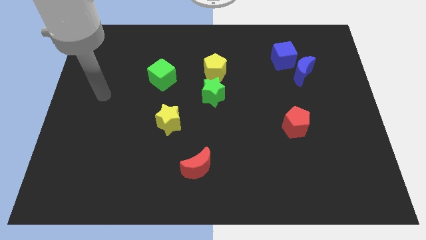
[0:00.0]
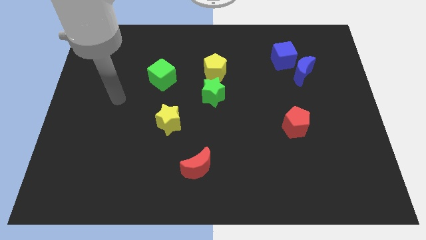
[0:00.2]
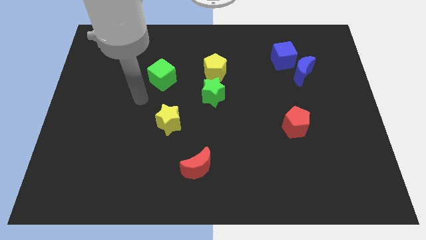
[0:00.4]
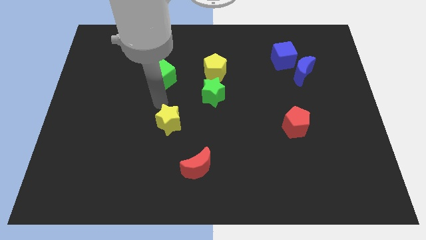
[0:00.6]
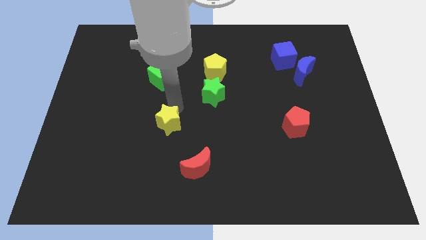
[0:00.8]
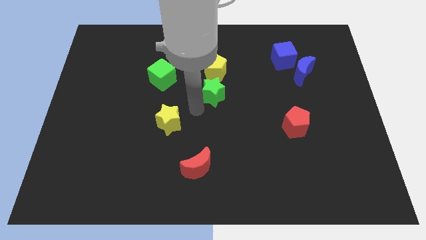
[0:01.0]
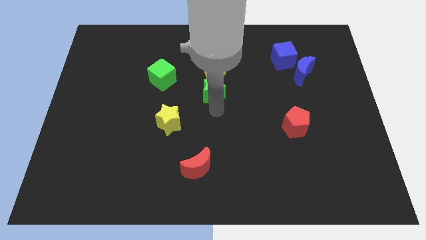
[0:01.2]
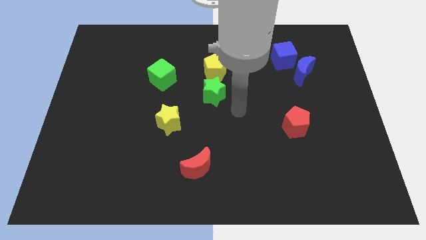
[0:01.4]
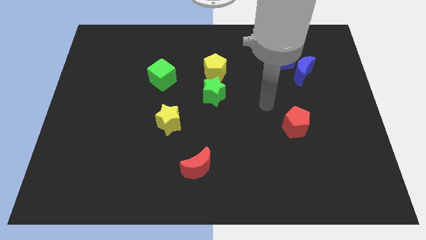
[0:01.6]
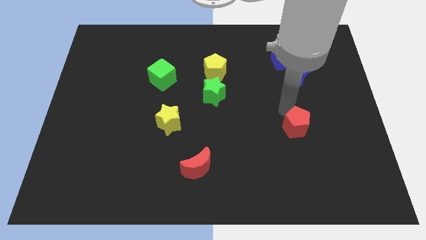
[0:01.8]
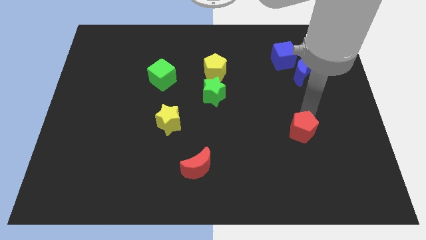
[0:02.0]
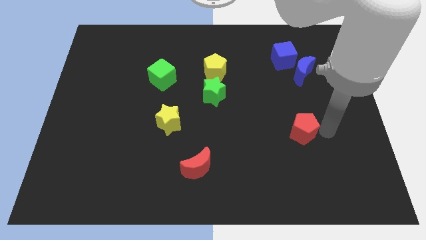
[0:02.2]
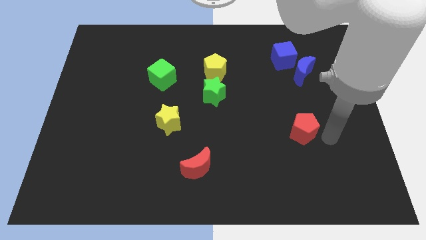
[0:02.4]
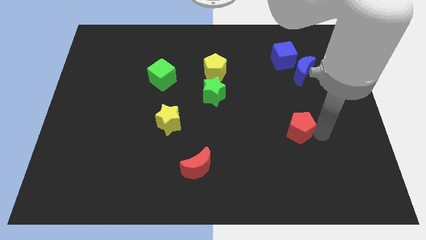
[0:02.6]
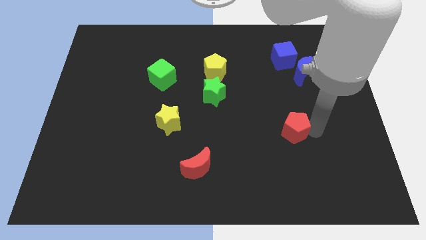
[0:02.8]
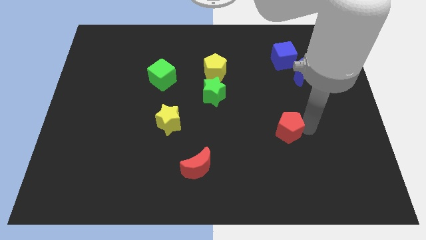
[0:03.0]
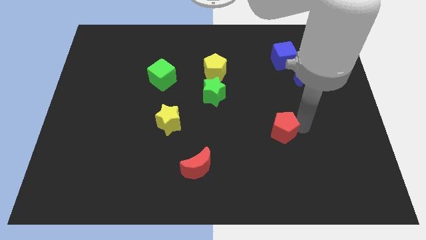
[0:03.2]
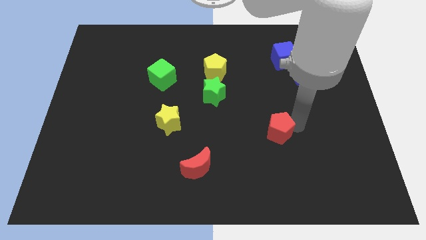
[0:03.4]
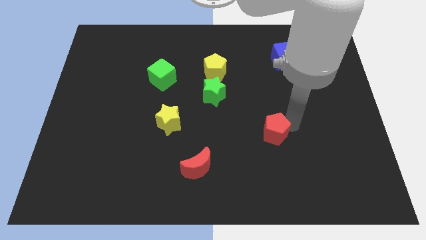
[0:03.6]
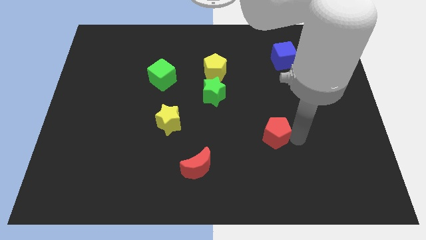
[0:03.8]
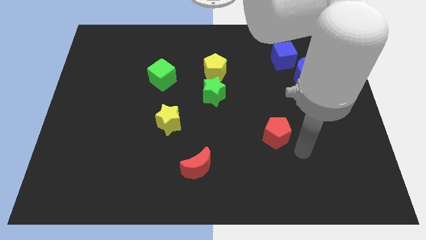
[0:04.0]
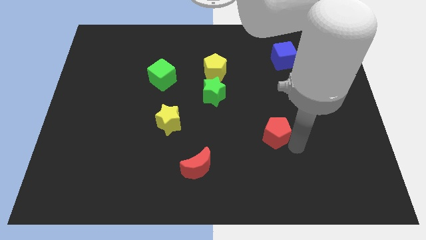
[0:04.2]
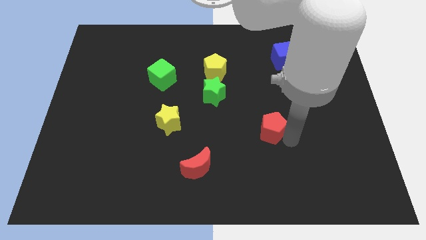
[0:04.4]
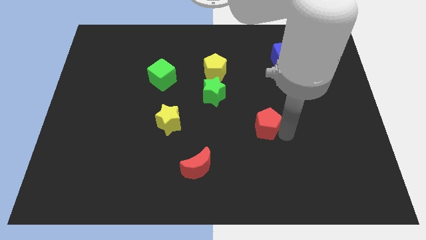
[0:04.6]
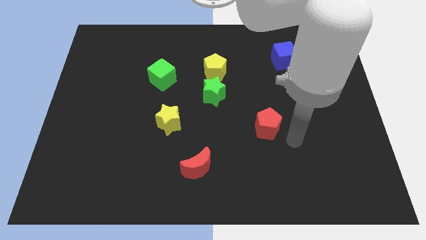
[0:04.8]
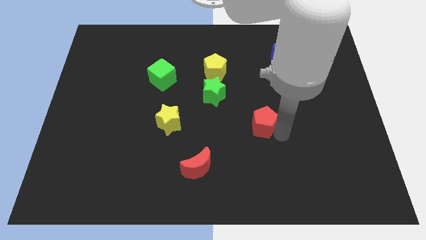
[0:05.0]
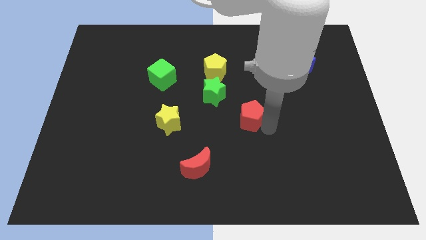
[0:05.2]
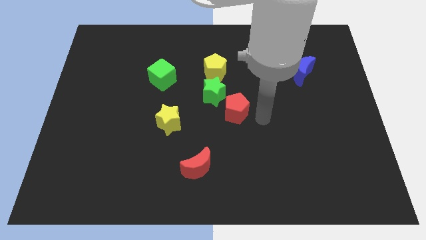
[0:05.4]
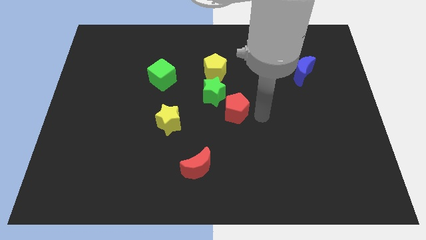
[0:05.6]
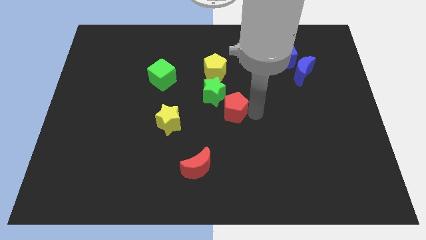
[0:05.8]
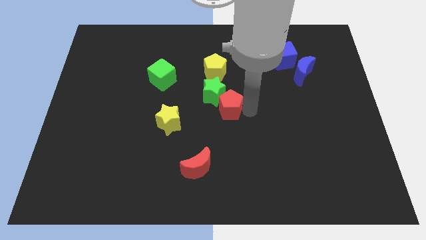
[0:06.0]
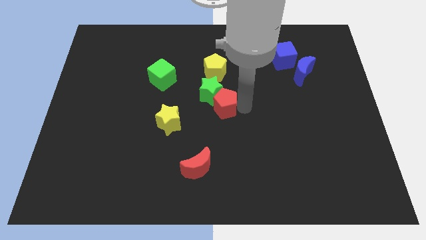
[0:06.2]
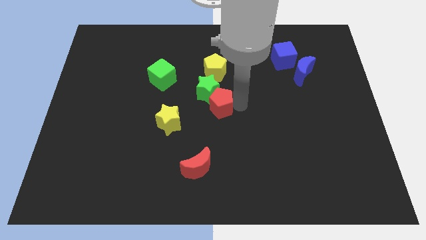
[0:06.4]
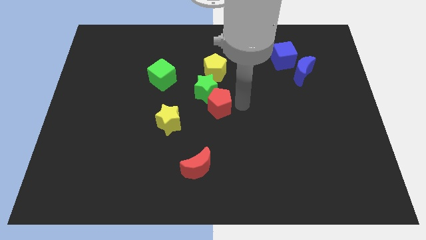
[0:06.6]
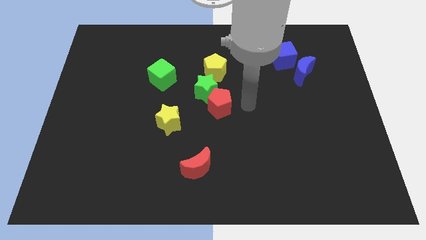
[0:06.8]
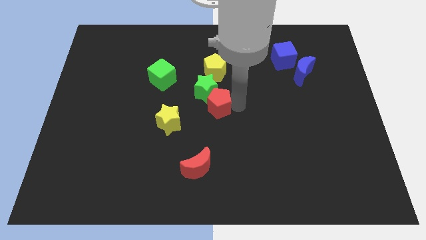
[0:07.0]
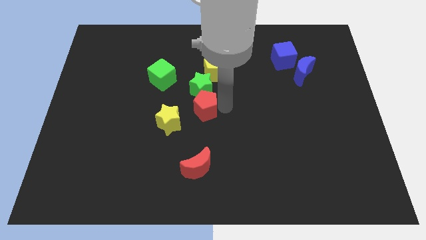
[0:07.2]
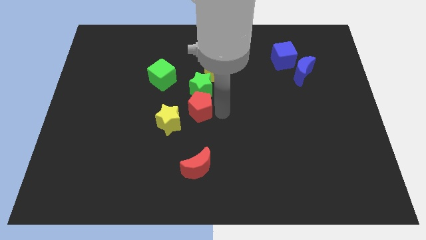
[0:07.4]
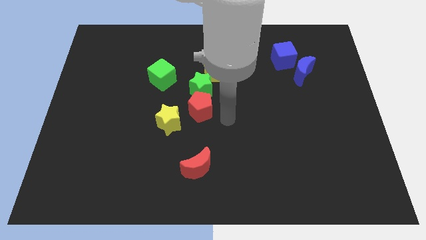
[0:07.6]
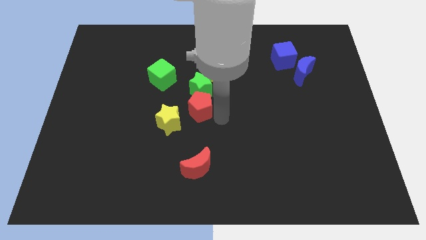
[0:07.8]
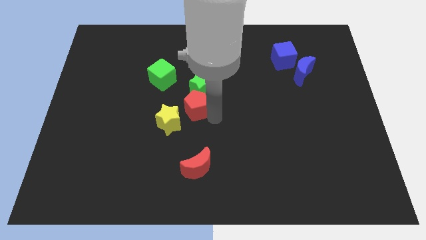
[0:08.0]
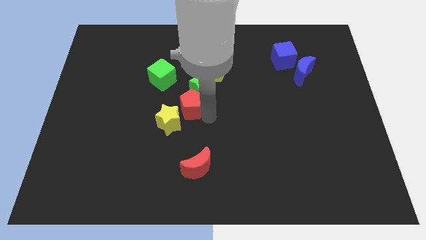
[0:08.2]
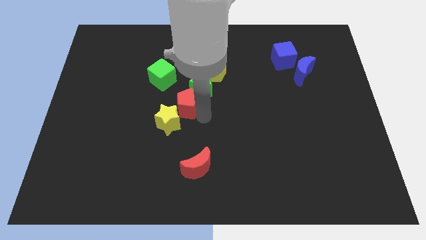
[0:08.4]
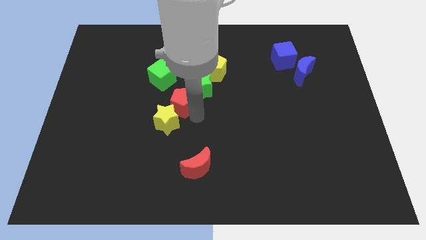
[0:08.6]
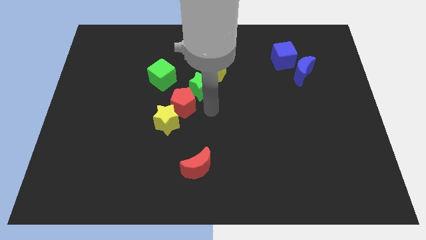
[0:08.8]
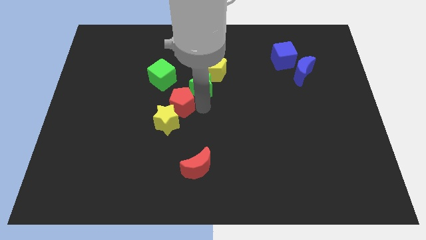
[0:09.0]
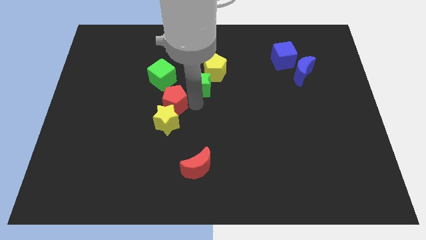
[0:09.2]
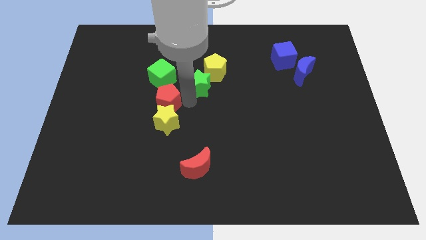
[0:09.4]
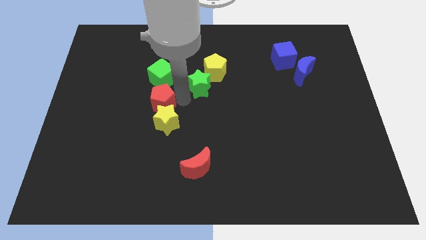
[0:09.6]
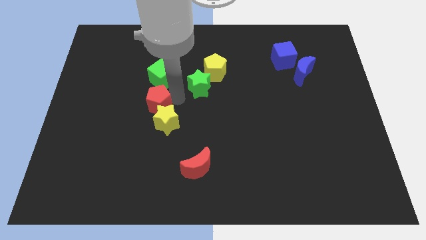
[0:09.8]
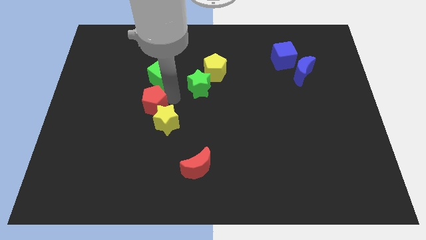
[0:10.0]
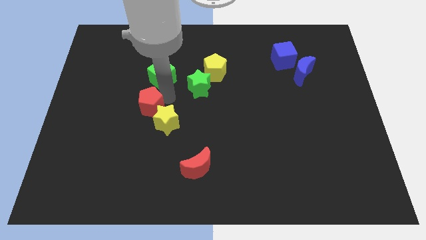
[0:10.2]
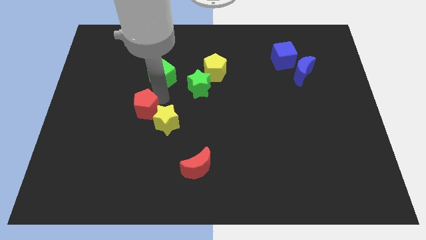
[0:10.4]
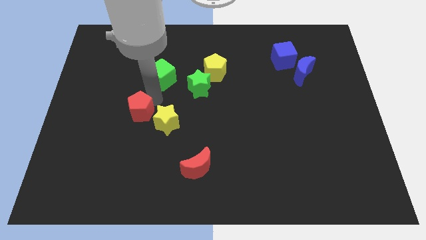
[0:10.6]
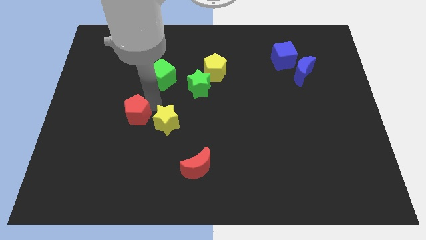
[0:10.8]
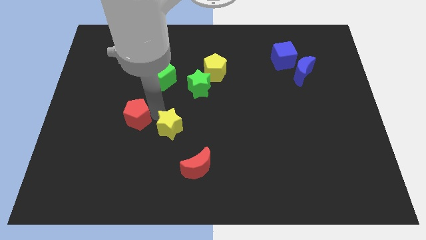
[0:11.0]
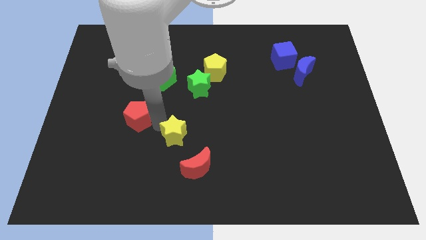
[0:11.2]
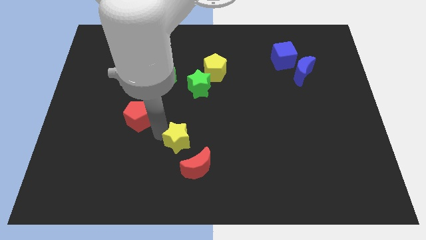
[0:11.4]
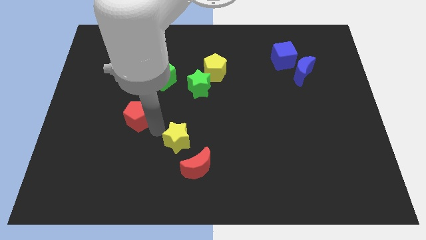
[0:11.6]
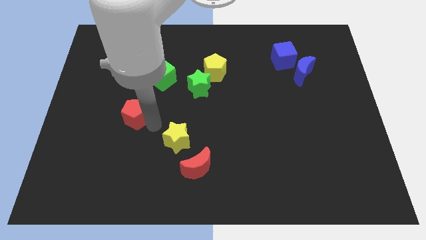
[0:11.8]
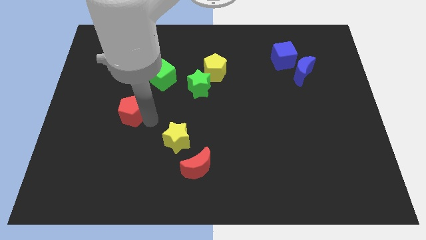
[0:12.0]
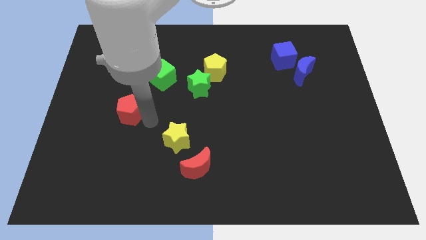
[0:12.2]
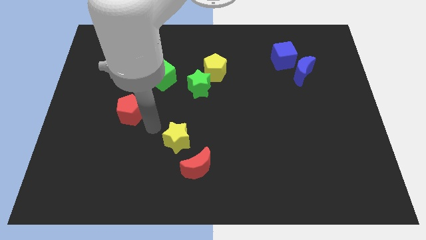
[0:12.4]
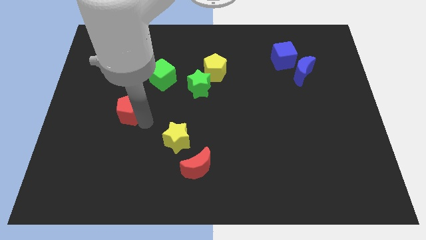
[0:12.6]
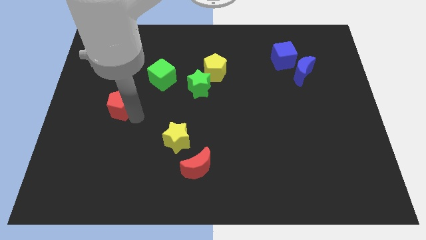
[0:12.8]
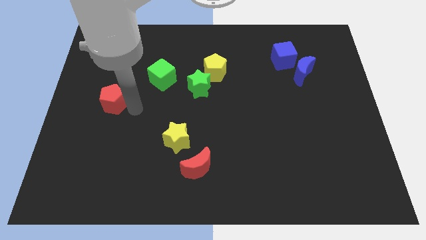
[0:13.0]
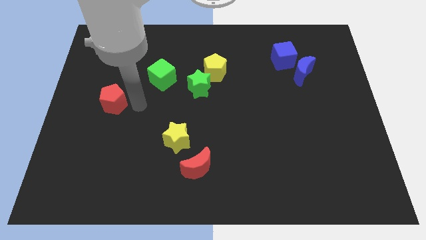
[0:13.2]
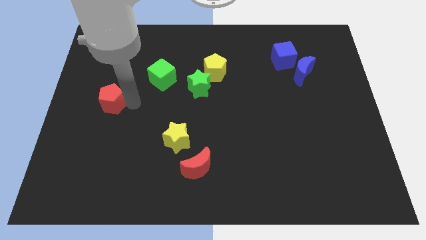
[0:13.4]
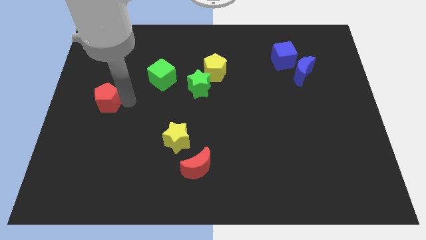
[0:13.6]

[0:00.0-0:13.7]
move the red pentagon to the left side
